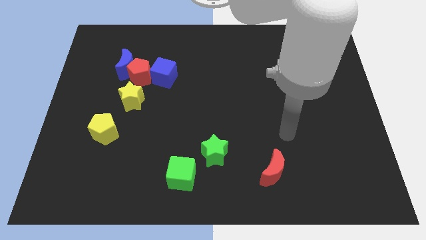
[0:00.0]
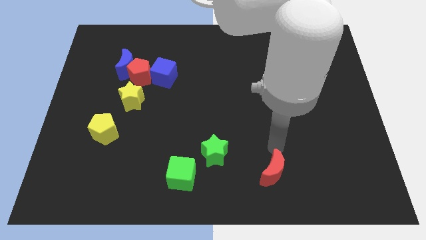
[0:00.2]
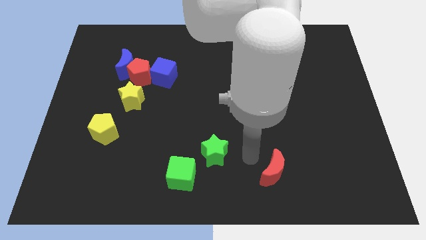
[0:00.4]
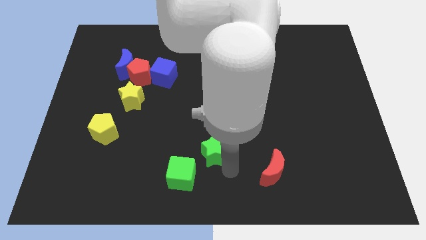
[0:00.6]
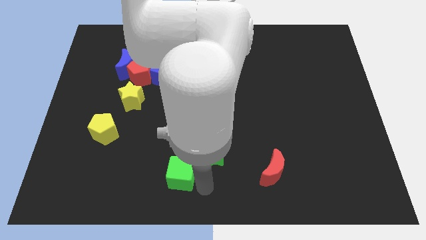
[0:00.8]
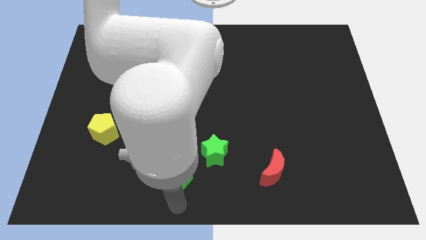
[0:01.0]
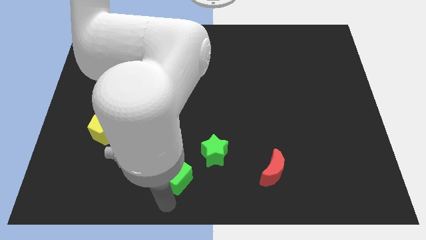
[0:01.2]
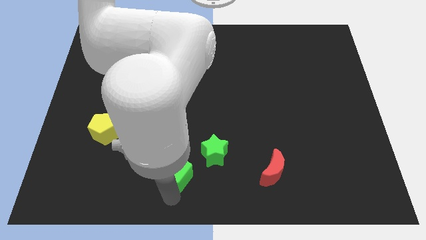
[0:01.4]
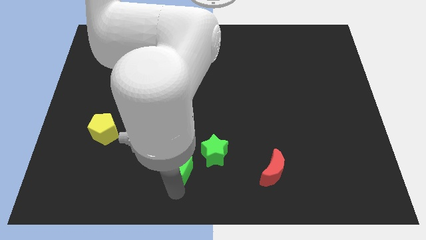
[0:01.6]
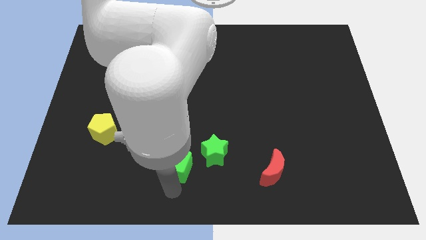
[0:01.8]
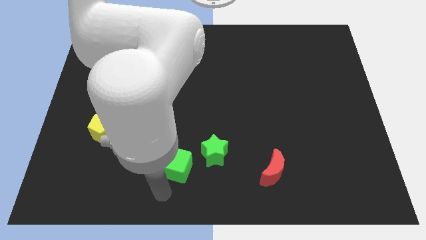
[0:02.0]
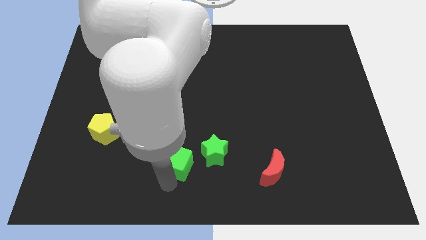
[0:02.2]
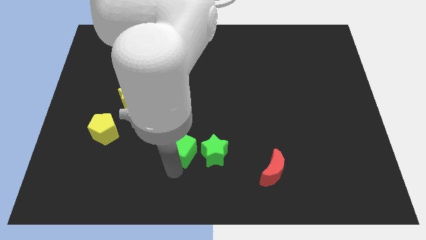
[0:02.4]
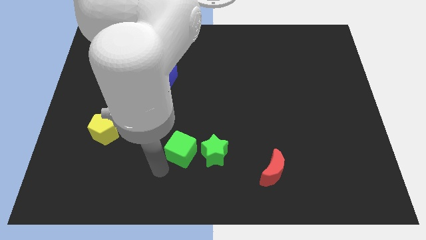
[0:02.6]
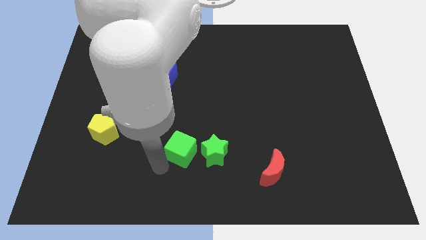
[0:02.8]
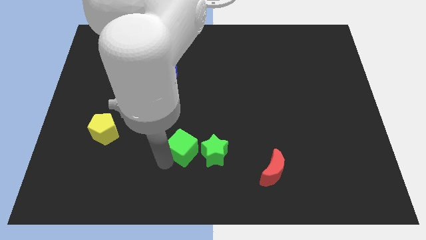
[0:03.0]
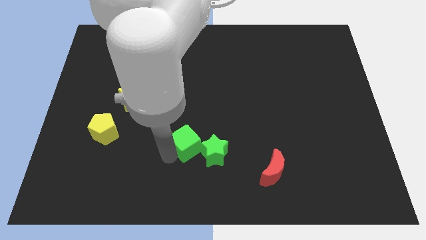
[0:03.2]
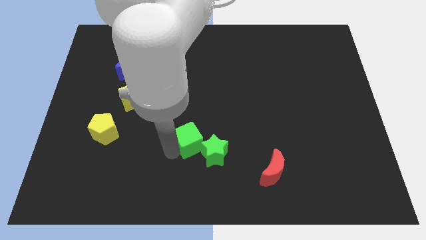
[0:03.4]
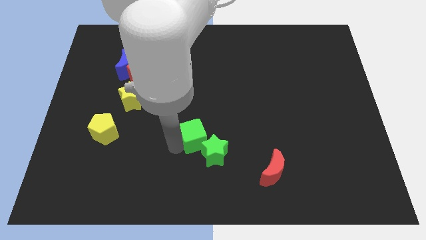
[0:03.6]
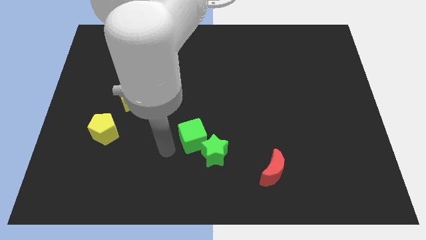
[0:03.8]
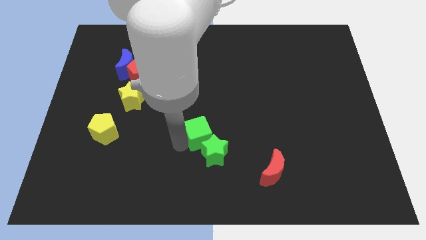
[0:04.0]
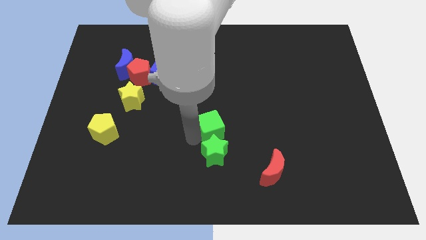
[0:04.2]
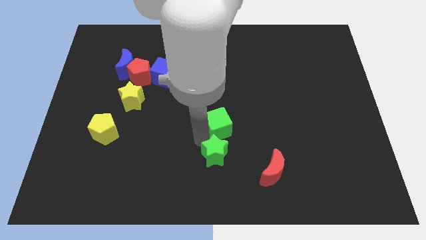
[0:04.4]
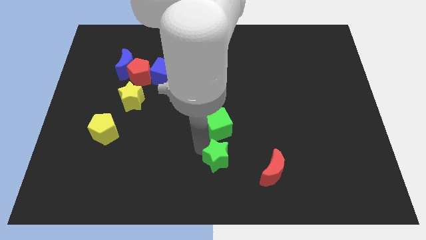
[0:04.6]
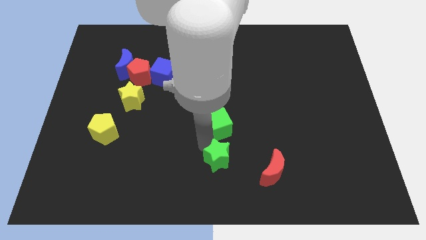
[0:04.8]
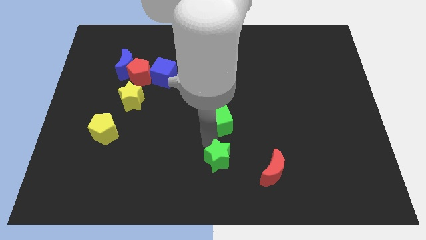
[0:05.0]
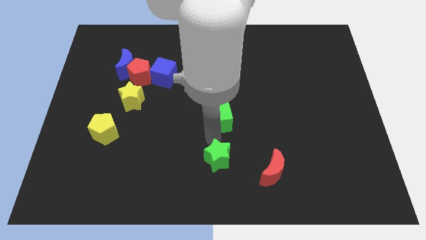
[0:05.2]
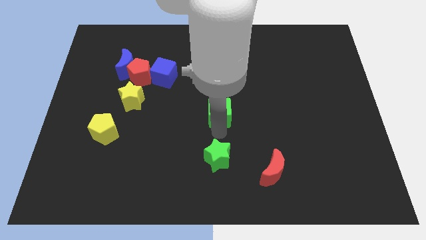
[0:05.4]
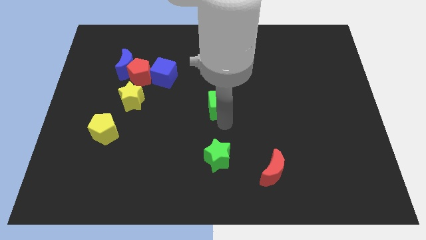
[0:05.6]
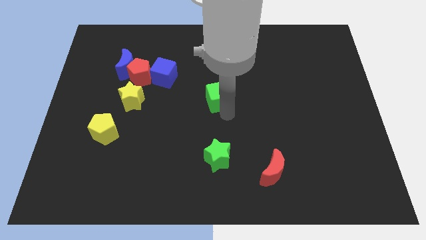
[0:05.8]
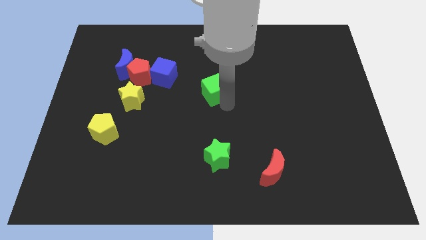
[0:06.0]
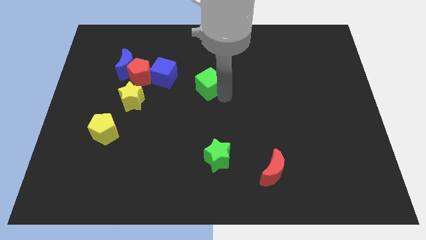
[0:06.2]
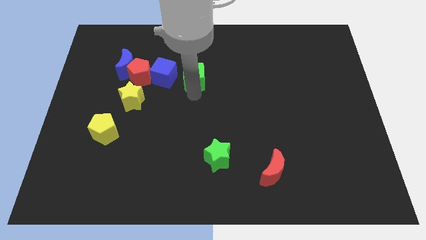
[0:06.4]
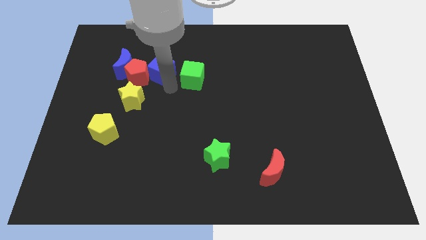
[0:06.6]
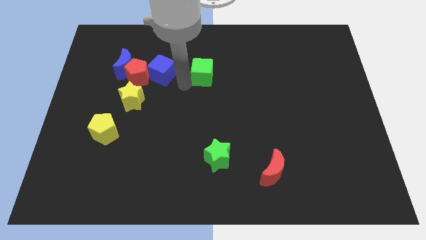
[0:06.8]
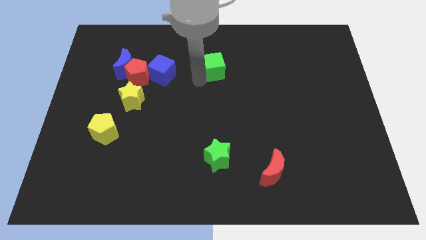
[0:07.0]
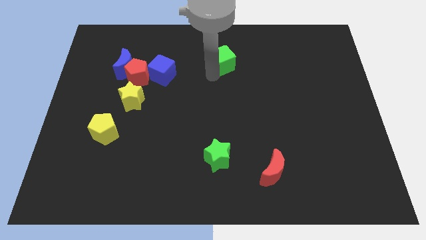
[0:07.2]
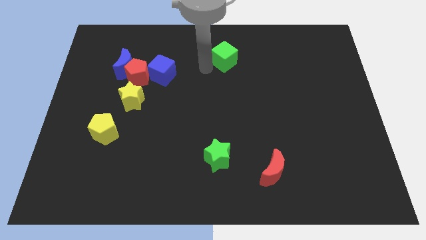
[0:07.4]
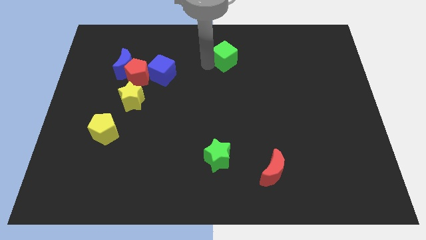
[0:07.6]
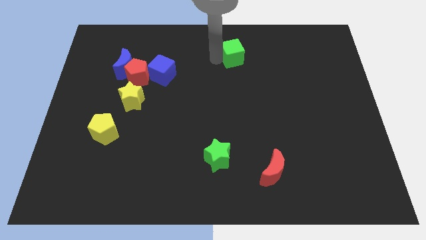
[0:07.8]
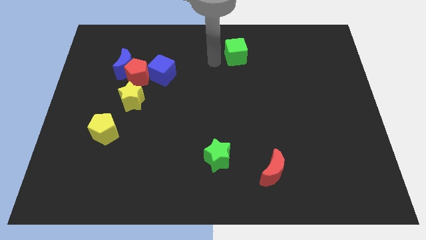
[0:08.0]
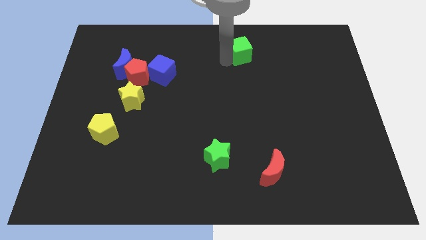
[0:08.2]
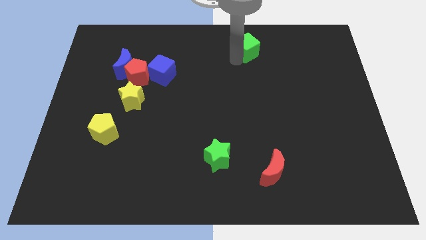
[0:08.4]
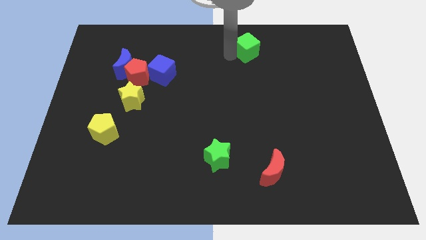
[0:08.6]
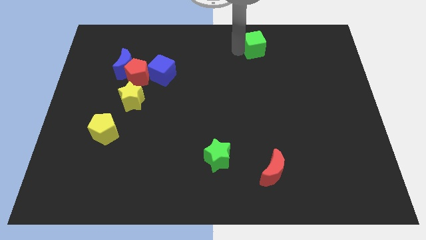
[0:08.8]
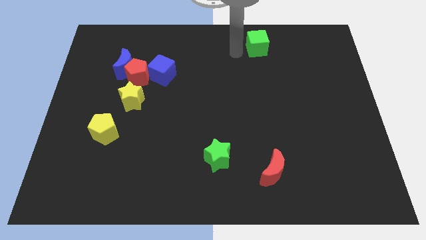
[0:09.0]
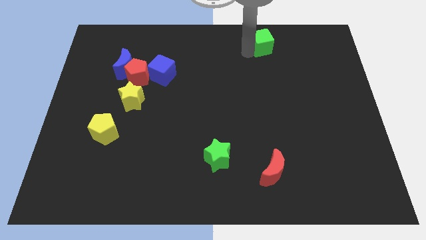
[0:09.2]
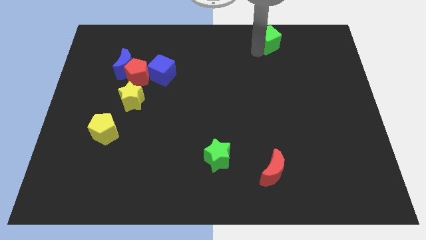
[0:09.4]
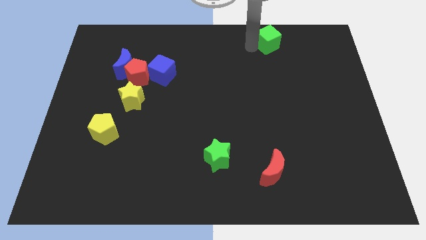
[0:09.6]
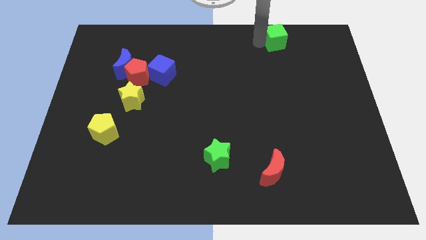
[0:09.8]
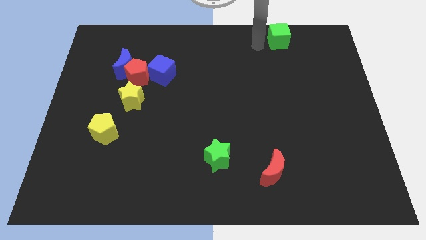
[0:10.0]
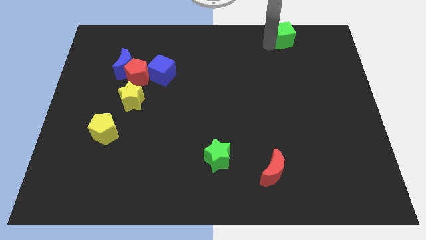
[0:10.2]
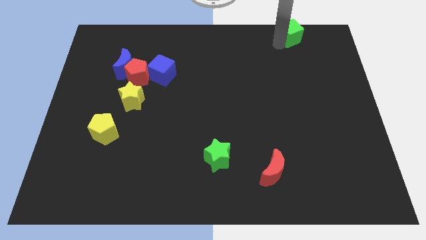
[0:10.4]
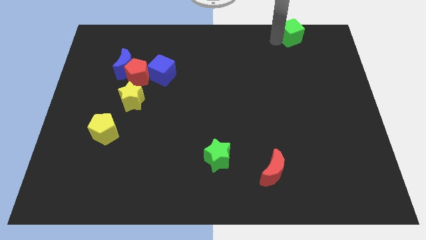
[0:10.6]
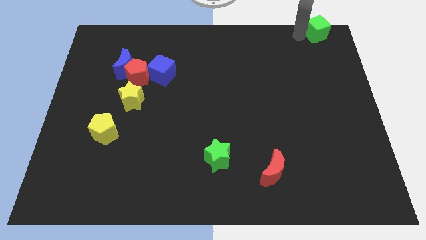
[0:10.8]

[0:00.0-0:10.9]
move the green cube to the top right corner

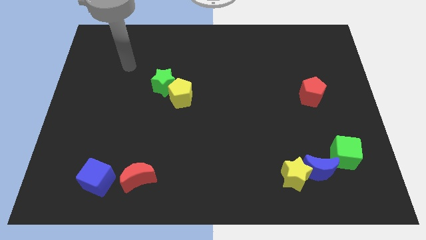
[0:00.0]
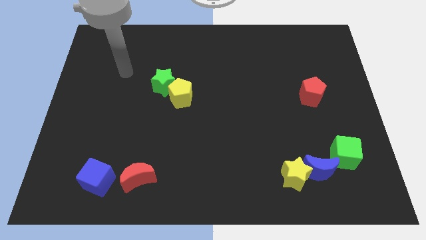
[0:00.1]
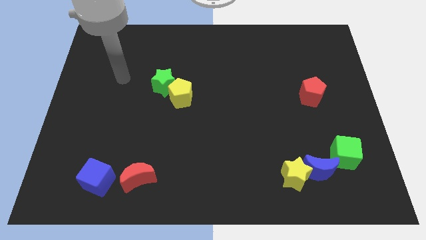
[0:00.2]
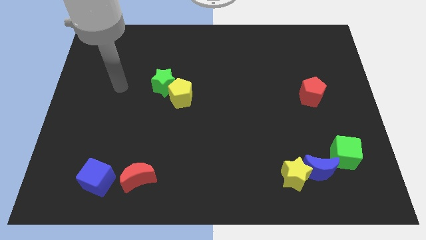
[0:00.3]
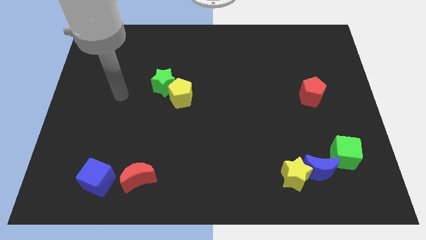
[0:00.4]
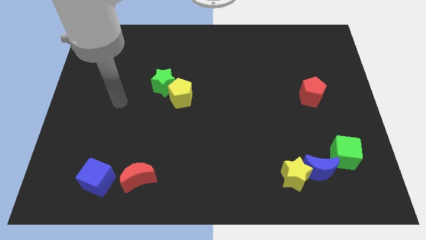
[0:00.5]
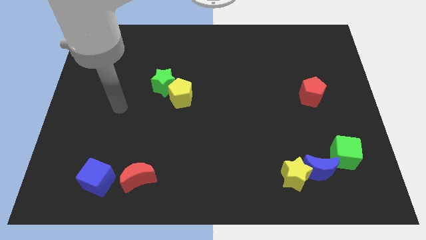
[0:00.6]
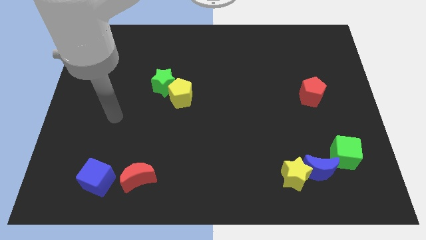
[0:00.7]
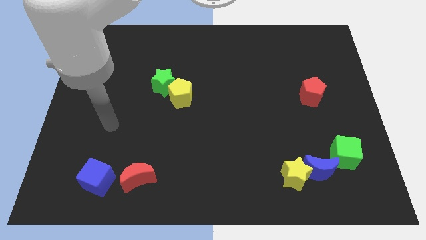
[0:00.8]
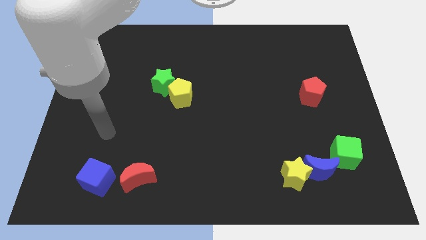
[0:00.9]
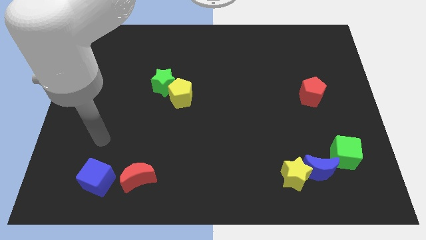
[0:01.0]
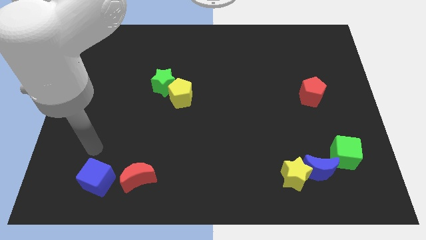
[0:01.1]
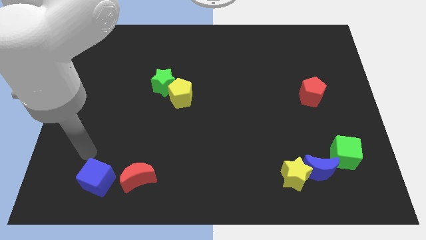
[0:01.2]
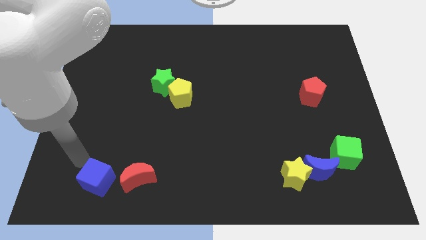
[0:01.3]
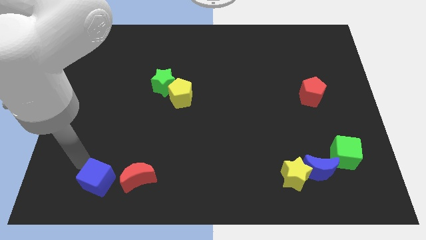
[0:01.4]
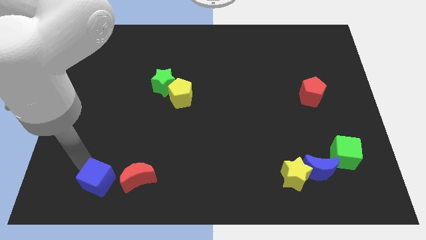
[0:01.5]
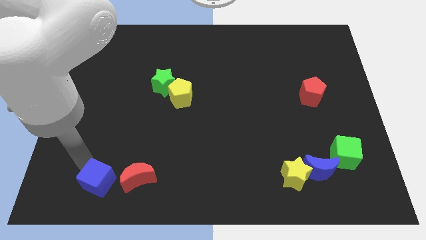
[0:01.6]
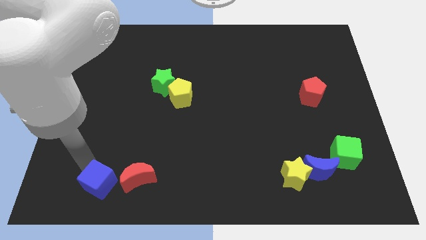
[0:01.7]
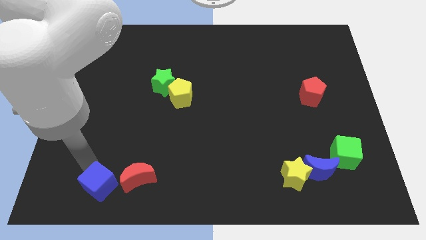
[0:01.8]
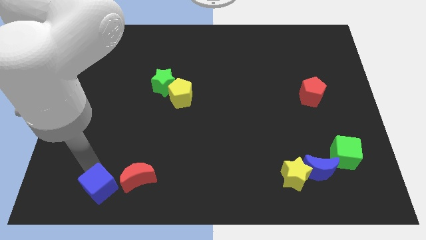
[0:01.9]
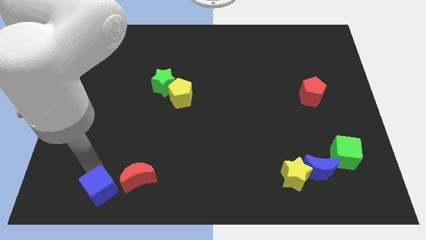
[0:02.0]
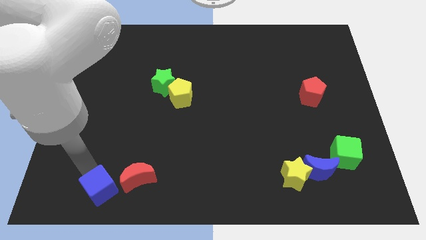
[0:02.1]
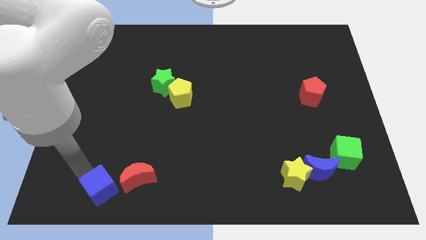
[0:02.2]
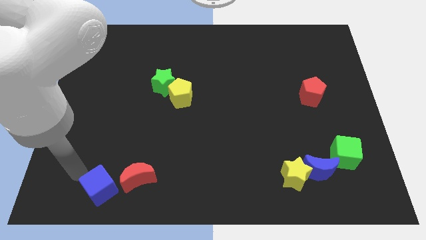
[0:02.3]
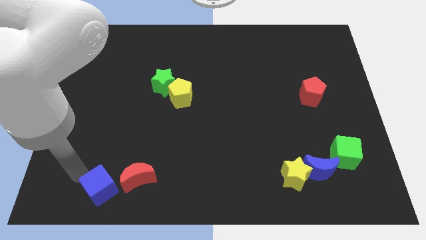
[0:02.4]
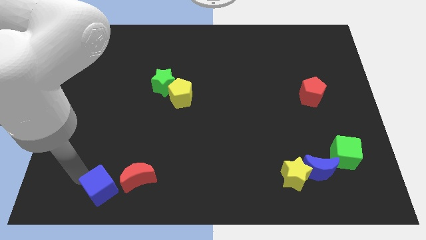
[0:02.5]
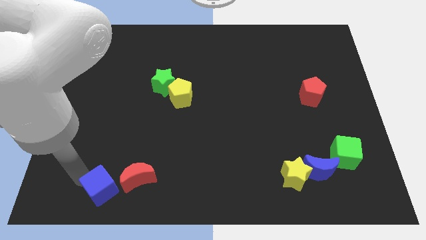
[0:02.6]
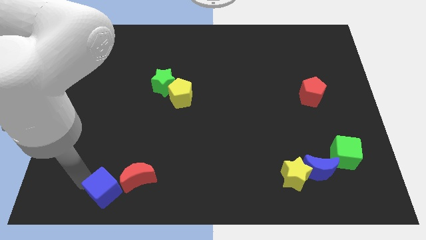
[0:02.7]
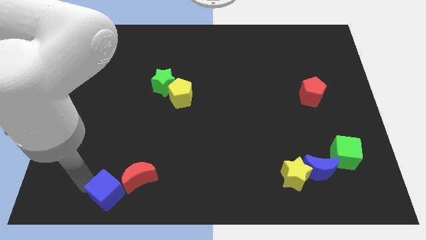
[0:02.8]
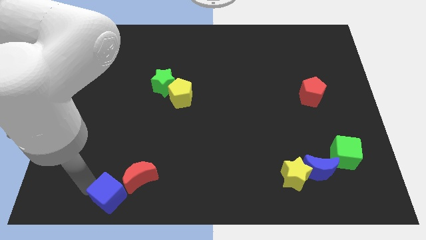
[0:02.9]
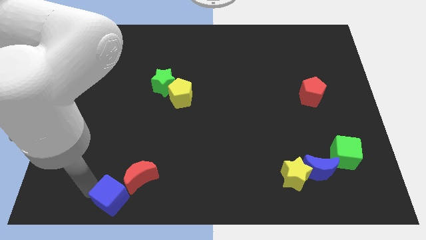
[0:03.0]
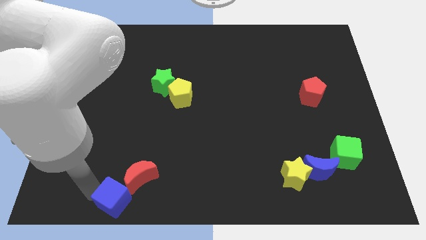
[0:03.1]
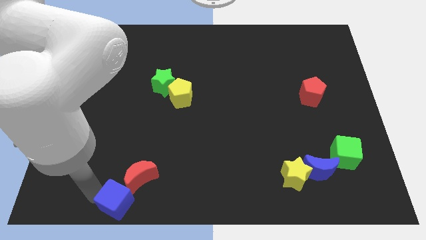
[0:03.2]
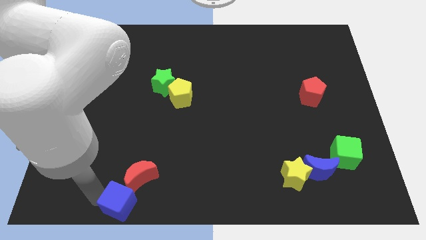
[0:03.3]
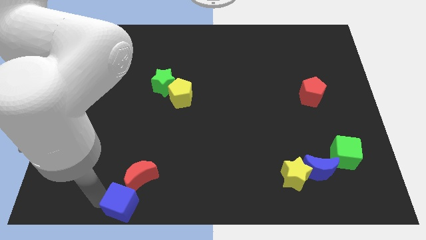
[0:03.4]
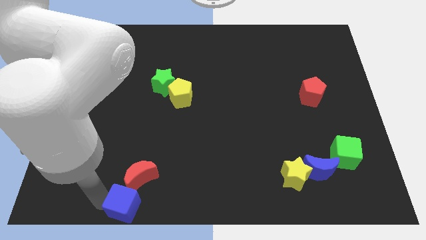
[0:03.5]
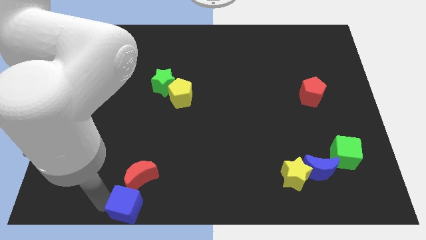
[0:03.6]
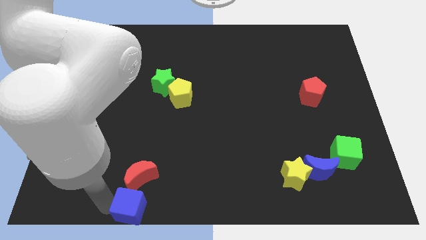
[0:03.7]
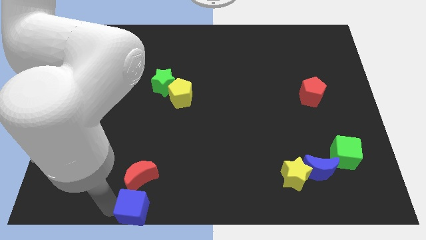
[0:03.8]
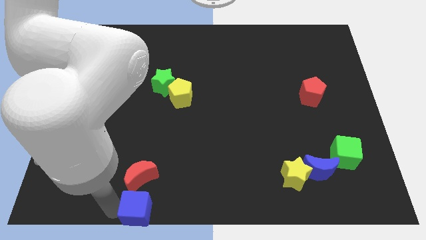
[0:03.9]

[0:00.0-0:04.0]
move the blue cube to the bottom
